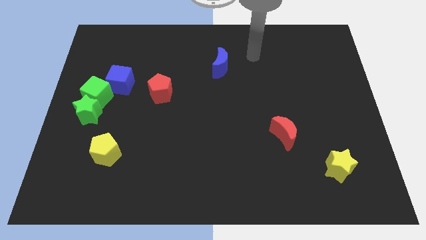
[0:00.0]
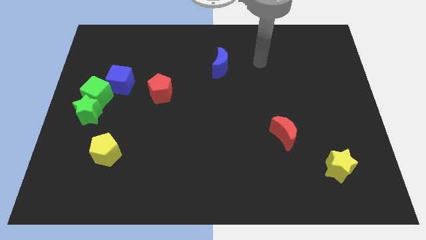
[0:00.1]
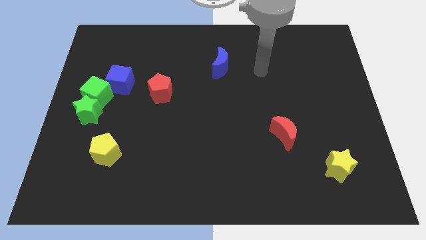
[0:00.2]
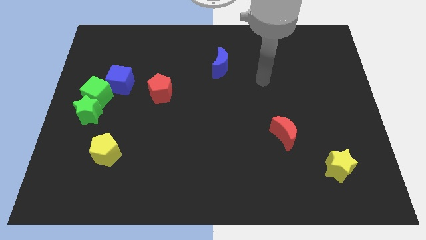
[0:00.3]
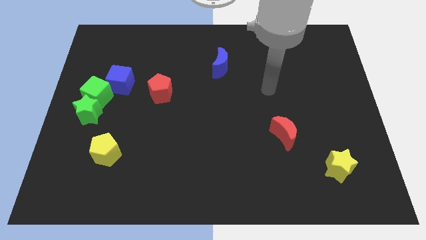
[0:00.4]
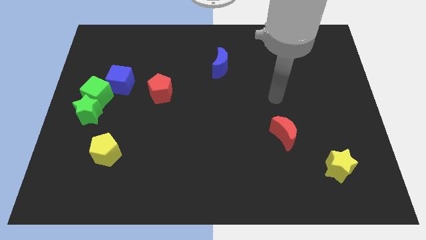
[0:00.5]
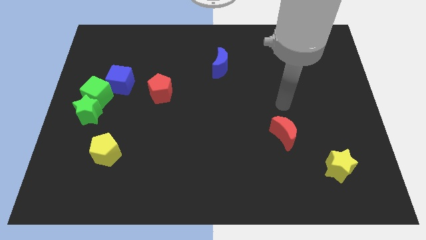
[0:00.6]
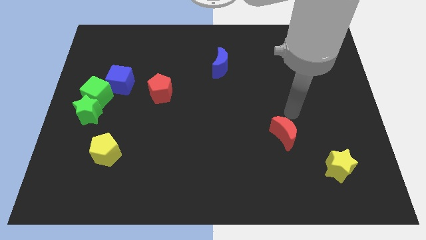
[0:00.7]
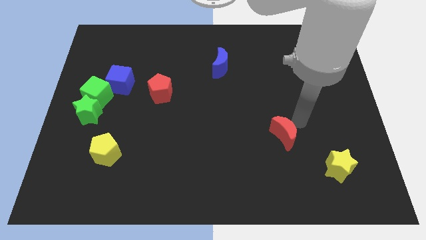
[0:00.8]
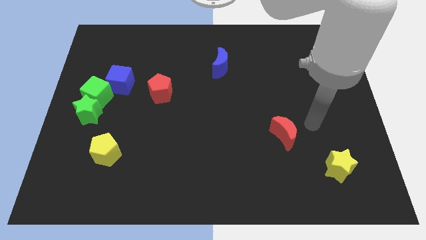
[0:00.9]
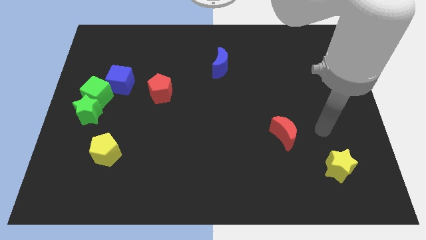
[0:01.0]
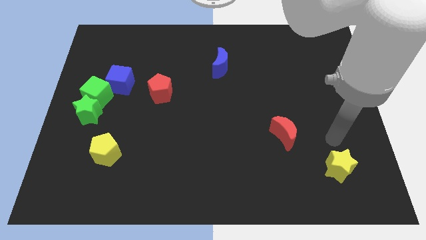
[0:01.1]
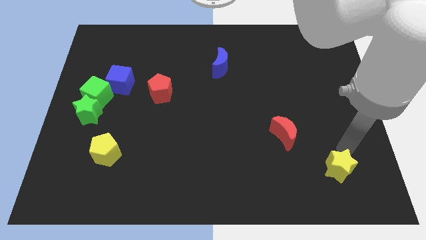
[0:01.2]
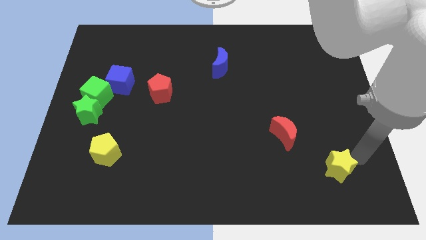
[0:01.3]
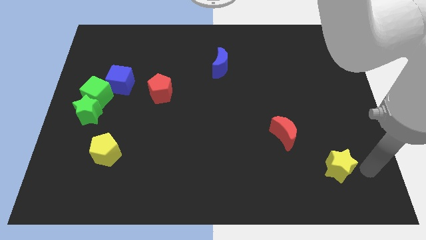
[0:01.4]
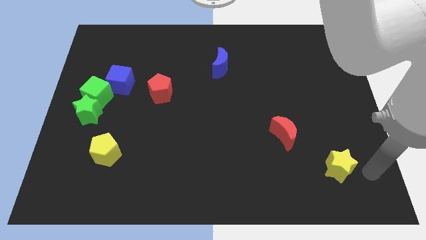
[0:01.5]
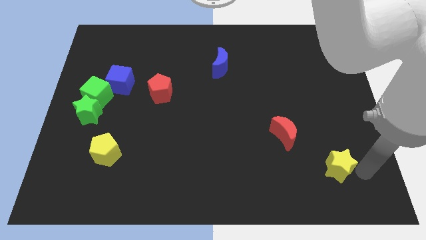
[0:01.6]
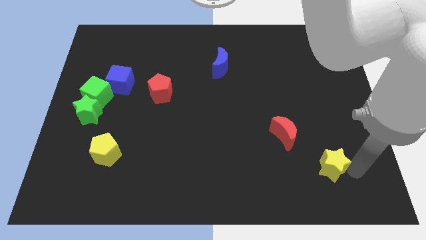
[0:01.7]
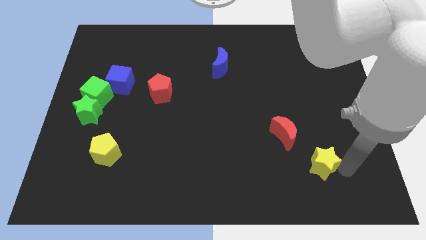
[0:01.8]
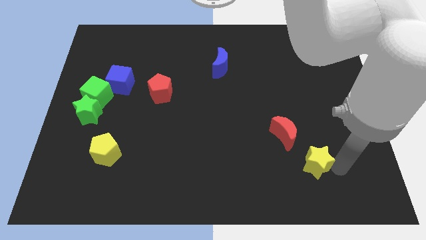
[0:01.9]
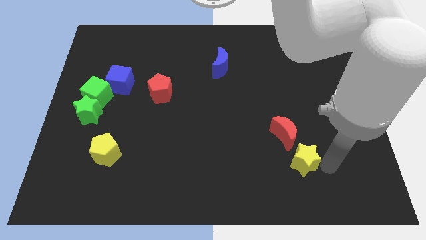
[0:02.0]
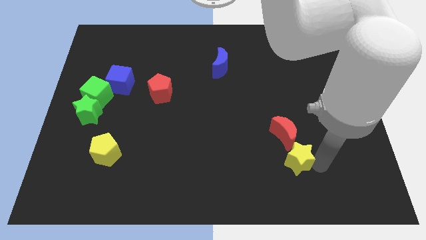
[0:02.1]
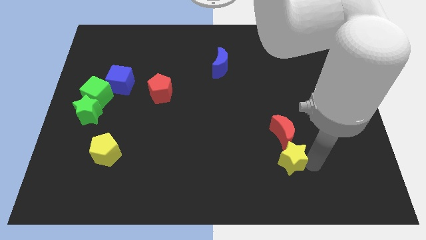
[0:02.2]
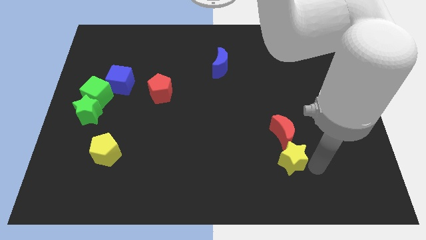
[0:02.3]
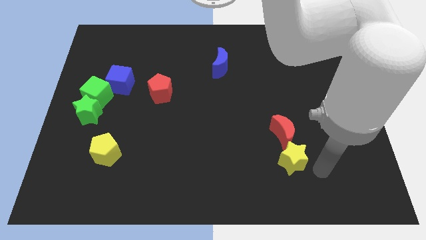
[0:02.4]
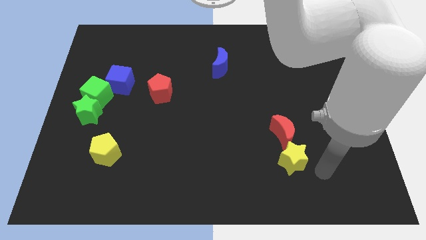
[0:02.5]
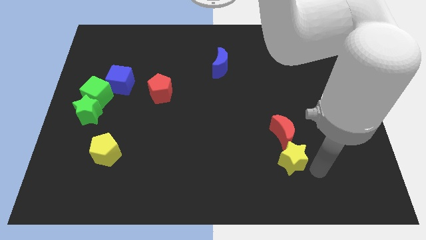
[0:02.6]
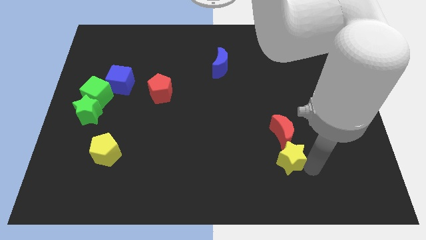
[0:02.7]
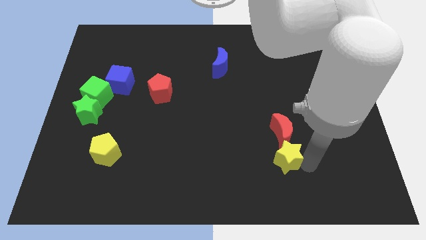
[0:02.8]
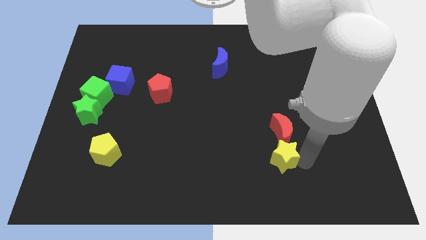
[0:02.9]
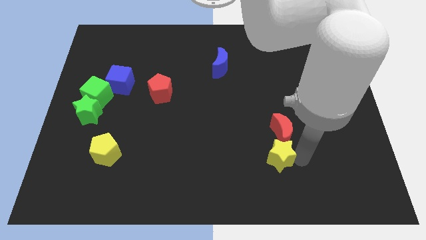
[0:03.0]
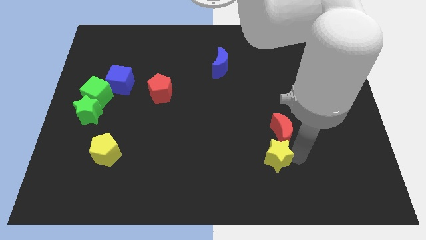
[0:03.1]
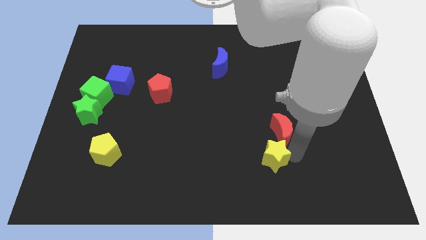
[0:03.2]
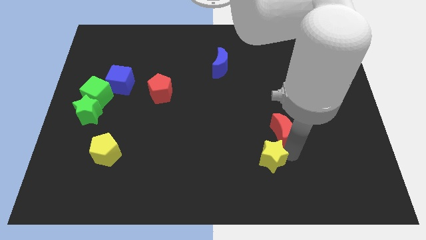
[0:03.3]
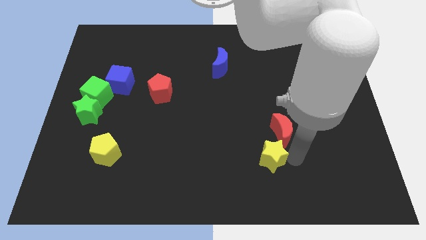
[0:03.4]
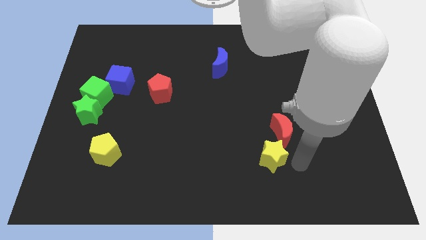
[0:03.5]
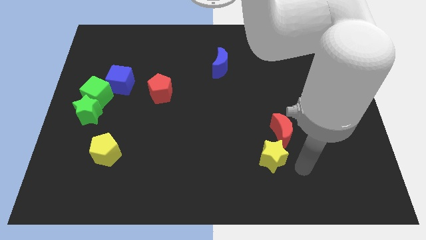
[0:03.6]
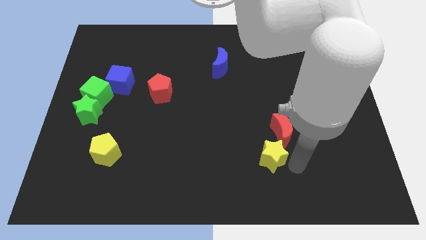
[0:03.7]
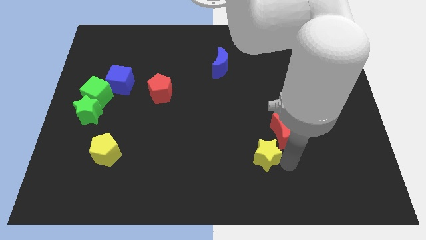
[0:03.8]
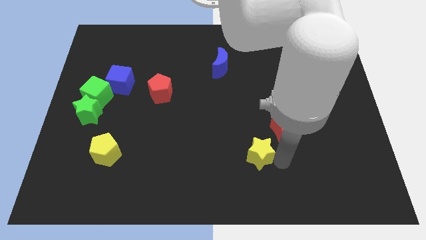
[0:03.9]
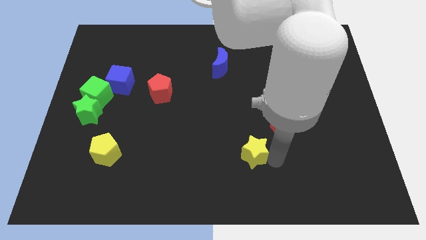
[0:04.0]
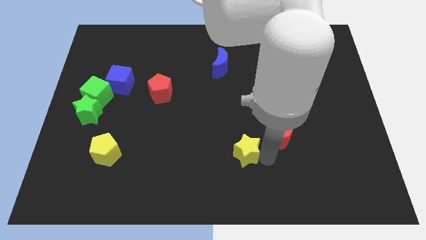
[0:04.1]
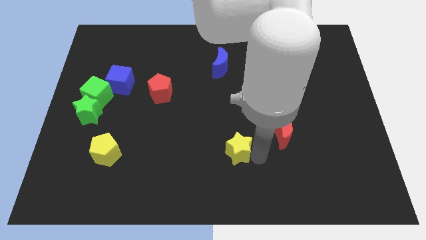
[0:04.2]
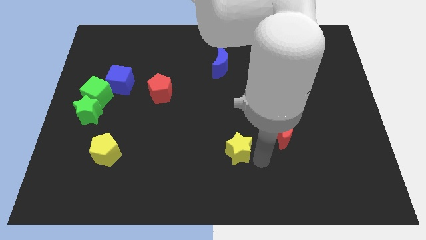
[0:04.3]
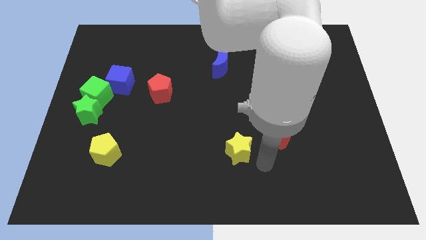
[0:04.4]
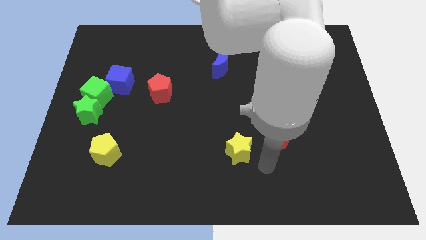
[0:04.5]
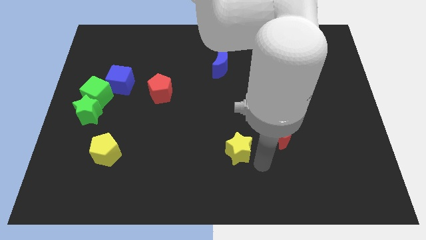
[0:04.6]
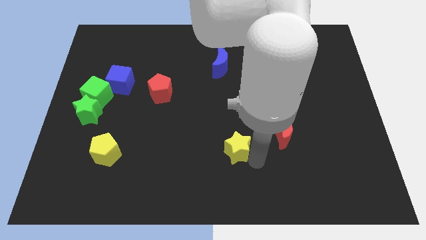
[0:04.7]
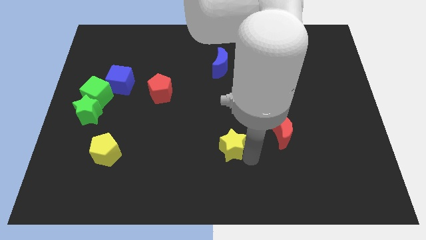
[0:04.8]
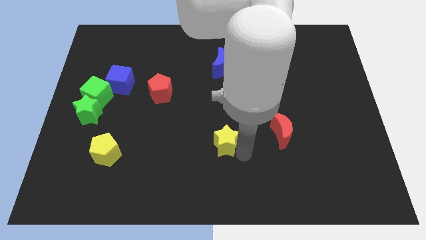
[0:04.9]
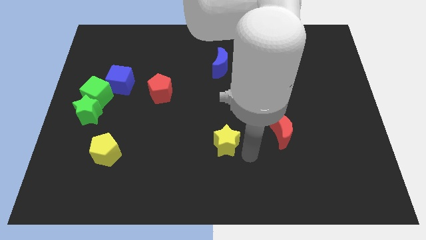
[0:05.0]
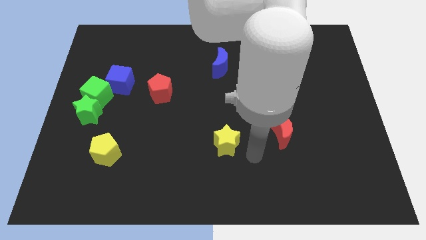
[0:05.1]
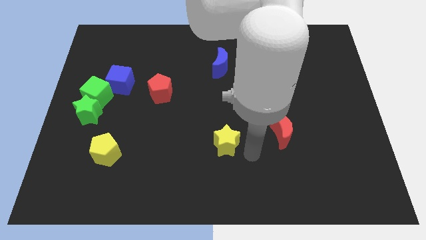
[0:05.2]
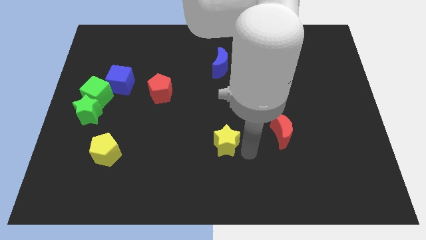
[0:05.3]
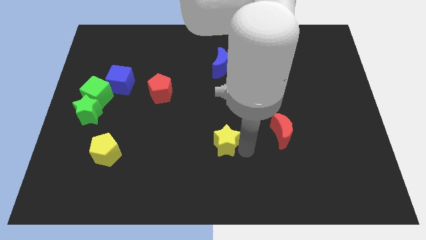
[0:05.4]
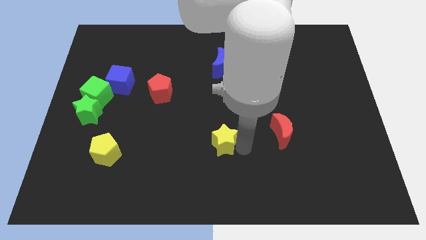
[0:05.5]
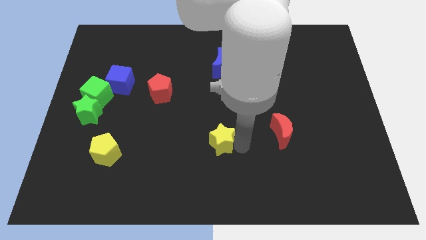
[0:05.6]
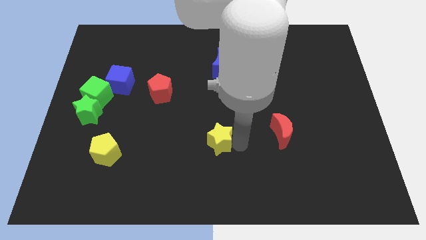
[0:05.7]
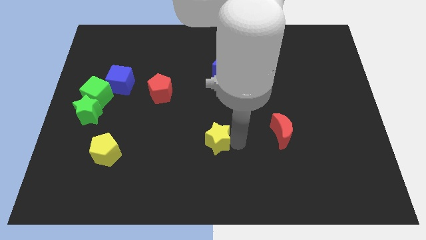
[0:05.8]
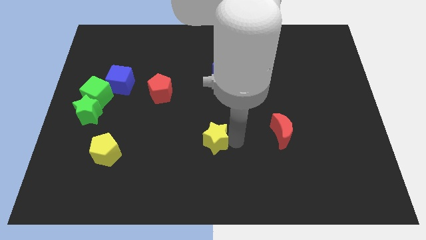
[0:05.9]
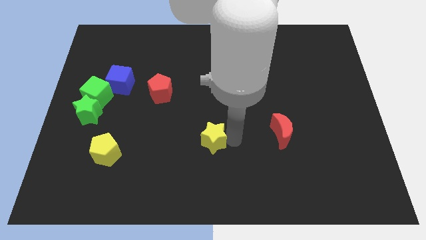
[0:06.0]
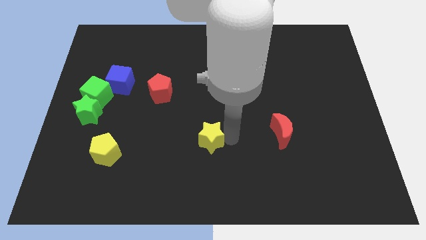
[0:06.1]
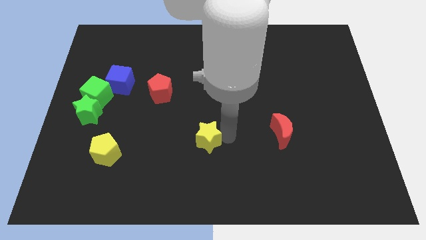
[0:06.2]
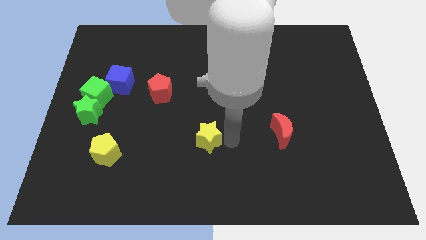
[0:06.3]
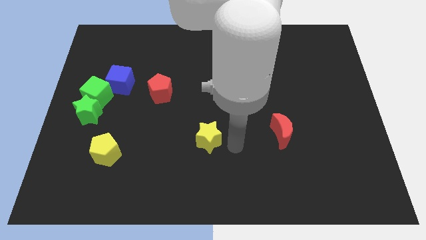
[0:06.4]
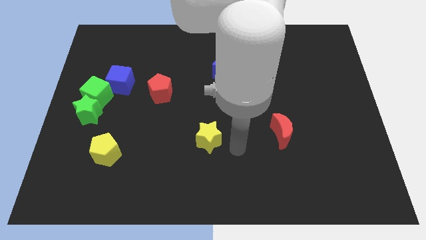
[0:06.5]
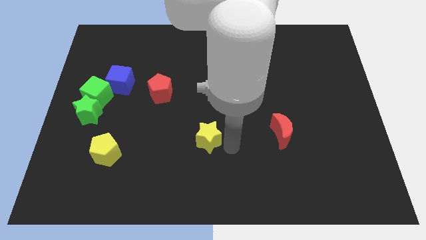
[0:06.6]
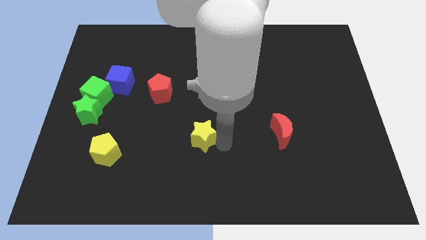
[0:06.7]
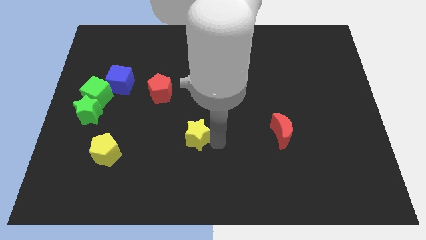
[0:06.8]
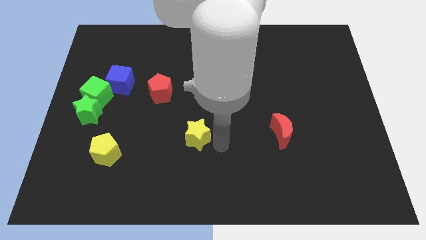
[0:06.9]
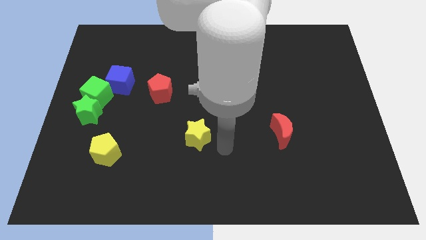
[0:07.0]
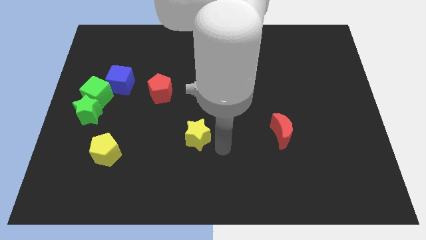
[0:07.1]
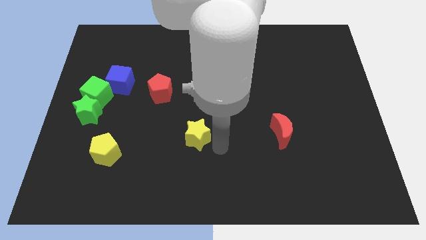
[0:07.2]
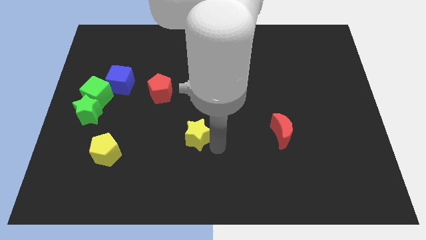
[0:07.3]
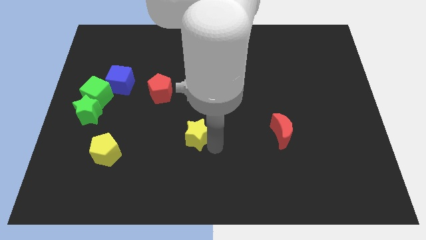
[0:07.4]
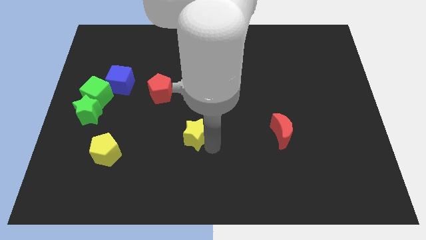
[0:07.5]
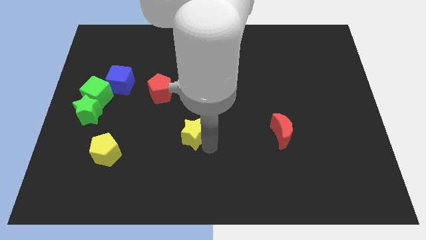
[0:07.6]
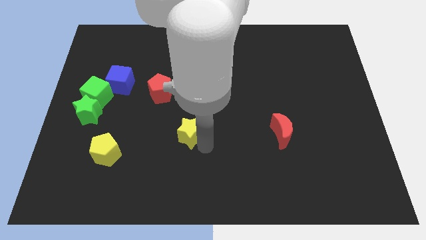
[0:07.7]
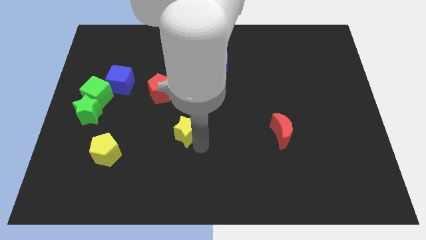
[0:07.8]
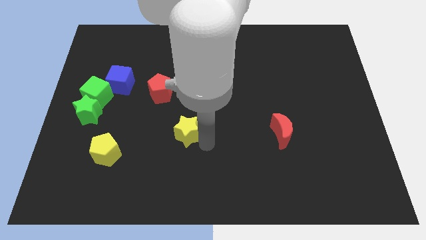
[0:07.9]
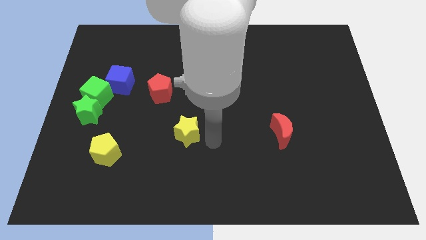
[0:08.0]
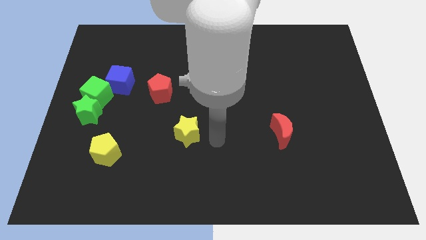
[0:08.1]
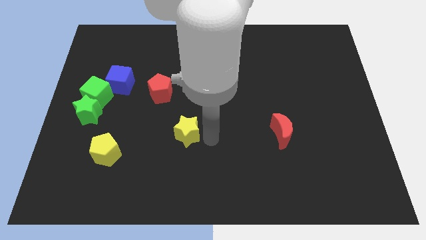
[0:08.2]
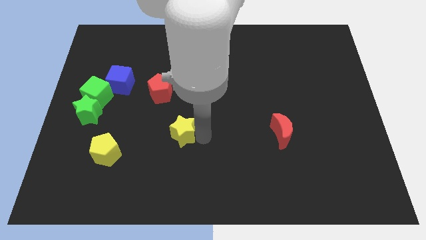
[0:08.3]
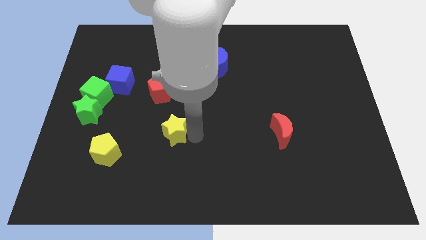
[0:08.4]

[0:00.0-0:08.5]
put the yellow star below the red pentagon
